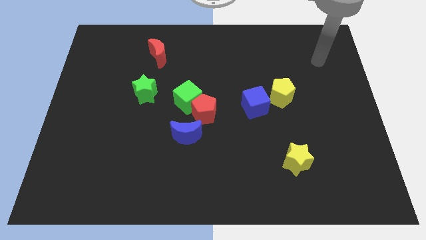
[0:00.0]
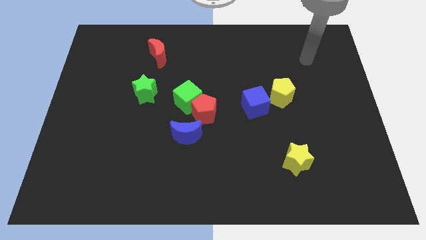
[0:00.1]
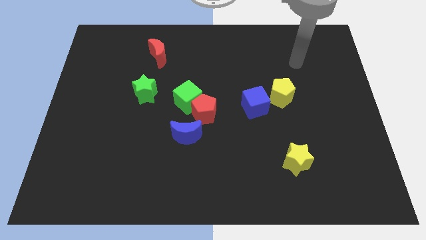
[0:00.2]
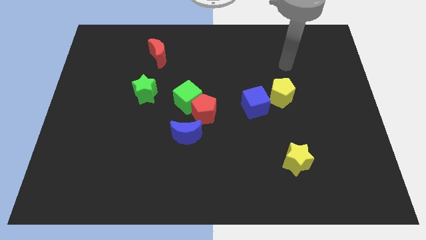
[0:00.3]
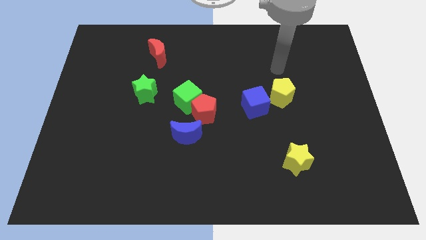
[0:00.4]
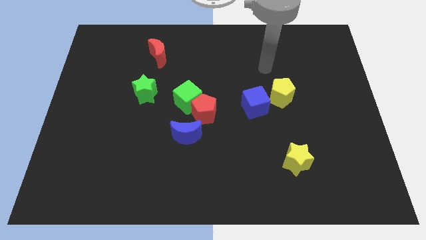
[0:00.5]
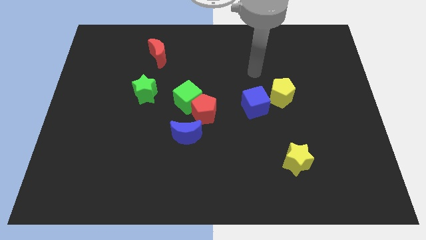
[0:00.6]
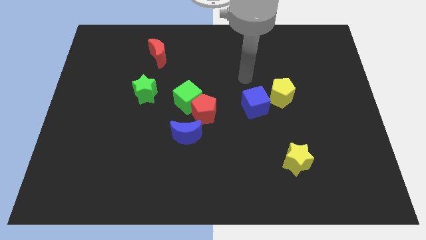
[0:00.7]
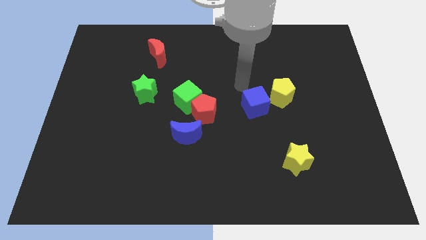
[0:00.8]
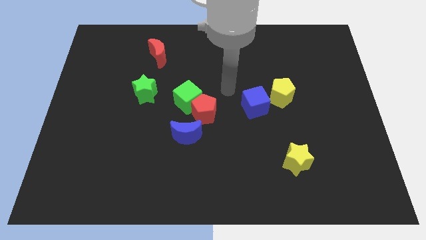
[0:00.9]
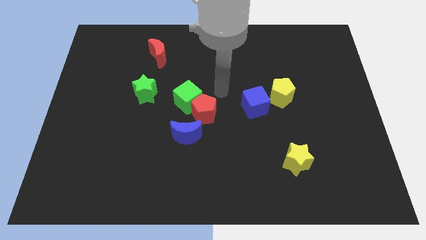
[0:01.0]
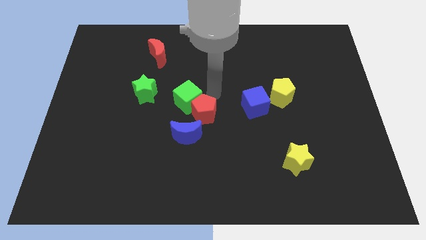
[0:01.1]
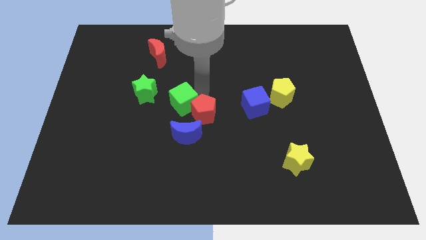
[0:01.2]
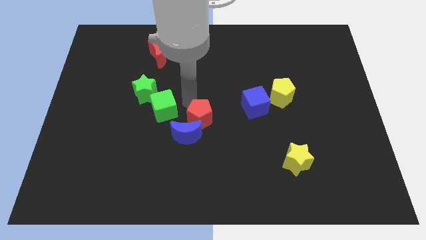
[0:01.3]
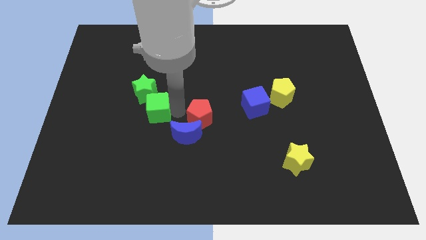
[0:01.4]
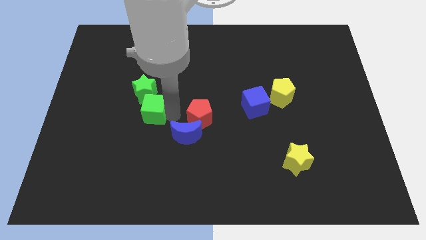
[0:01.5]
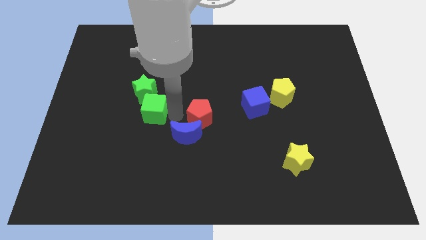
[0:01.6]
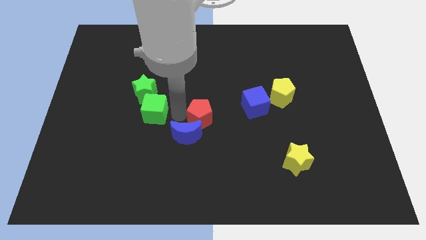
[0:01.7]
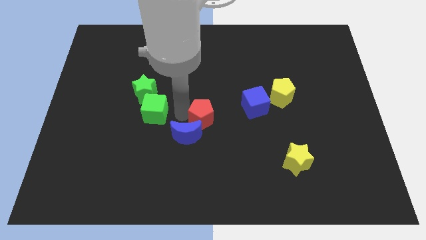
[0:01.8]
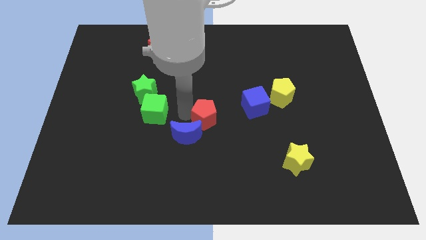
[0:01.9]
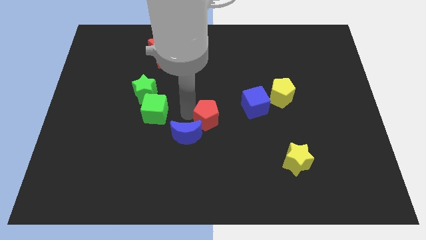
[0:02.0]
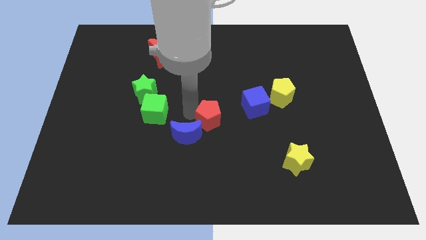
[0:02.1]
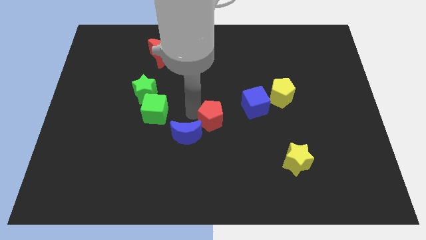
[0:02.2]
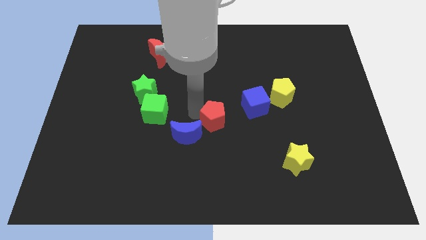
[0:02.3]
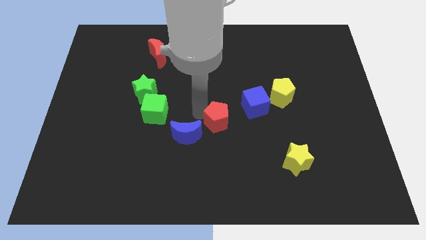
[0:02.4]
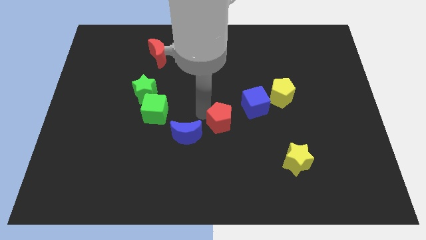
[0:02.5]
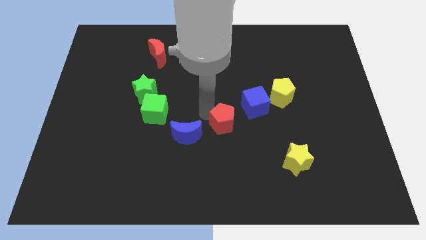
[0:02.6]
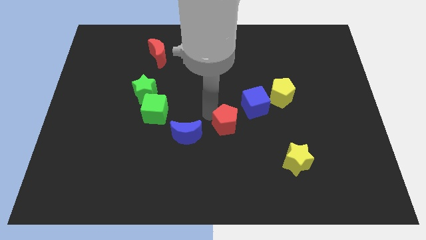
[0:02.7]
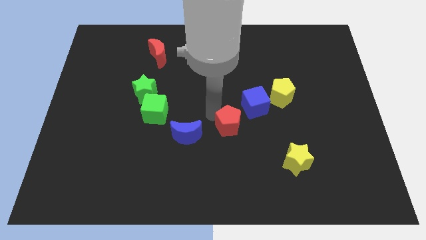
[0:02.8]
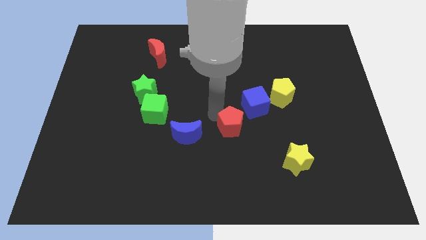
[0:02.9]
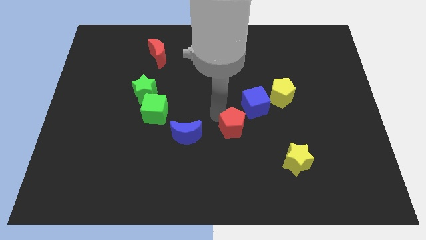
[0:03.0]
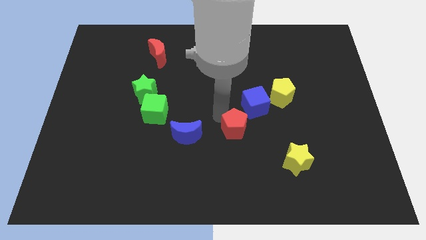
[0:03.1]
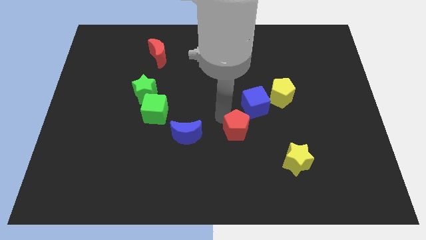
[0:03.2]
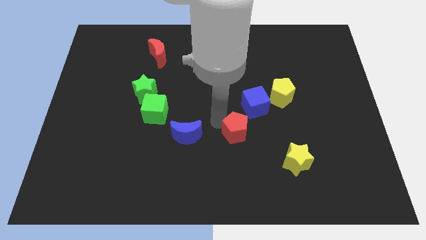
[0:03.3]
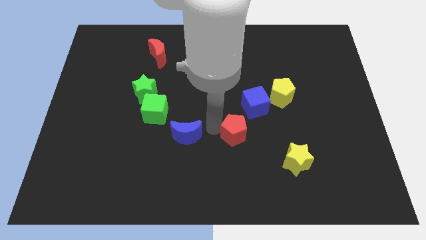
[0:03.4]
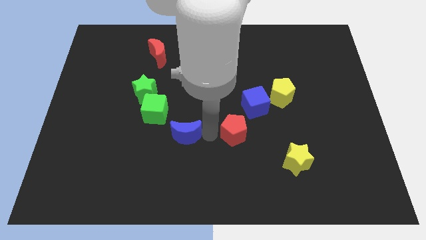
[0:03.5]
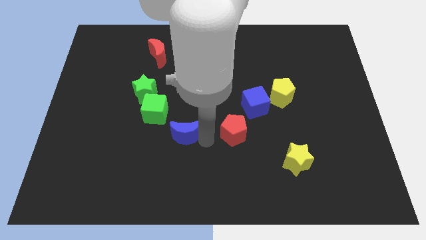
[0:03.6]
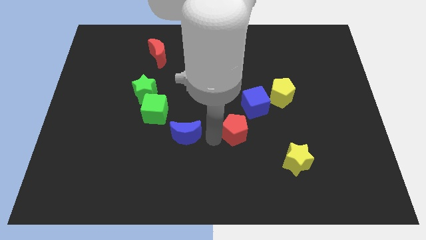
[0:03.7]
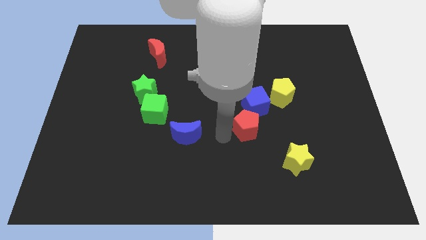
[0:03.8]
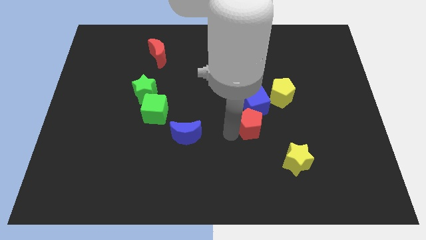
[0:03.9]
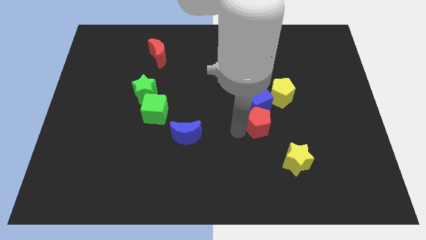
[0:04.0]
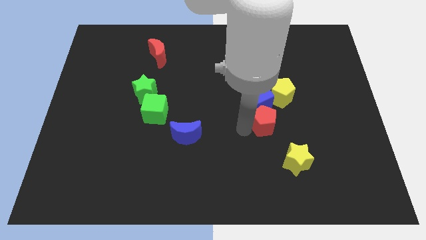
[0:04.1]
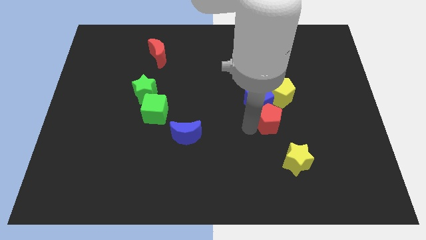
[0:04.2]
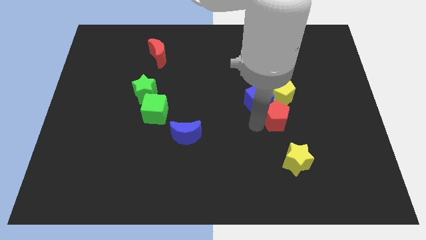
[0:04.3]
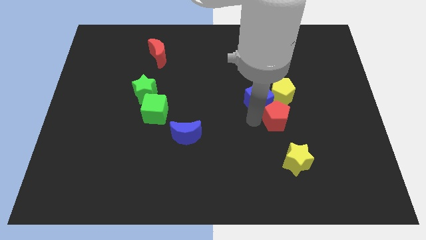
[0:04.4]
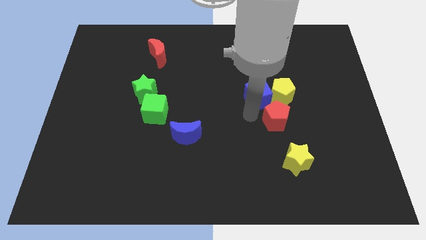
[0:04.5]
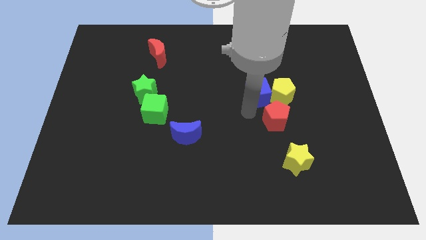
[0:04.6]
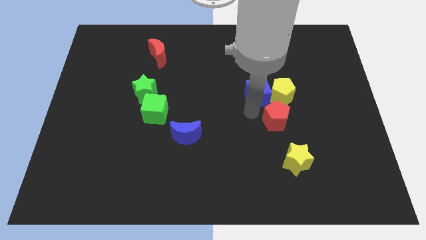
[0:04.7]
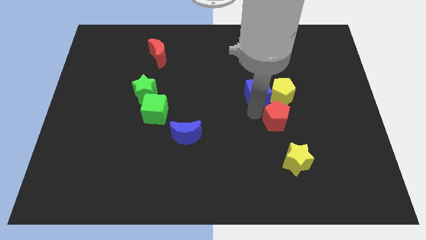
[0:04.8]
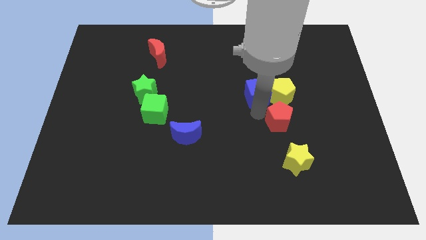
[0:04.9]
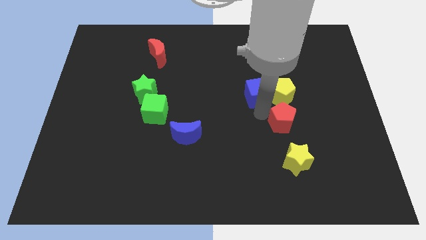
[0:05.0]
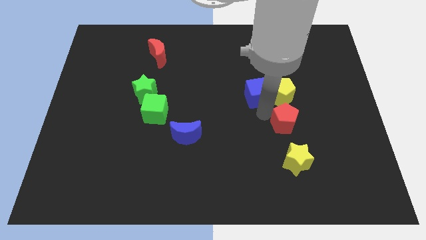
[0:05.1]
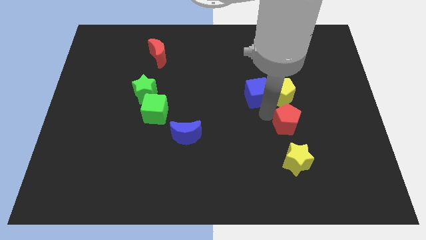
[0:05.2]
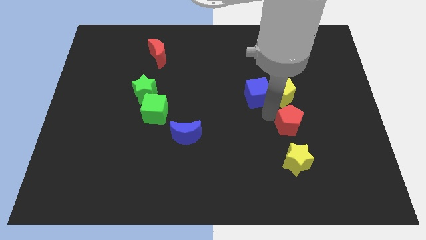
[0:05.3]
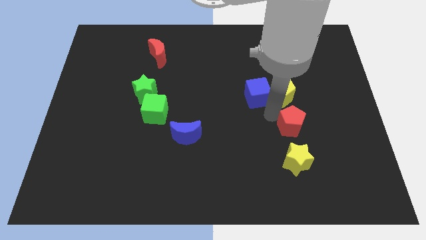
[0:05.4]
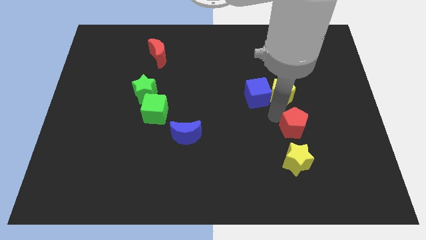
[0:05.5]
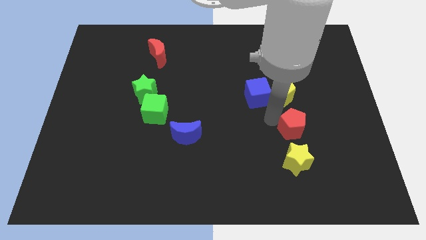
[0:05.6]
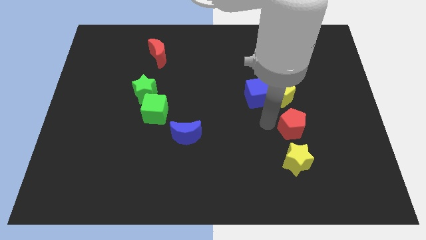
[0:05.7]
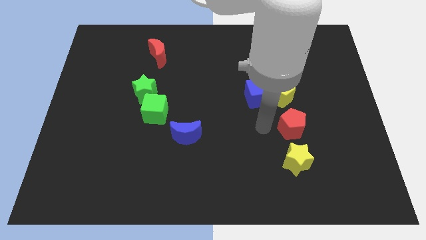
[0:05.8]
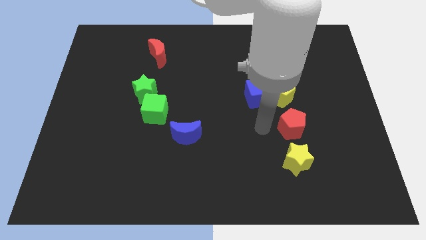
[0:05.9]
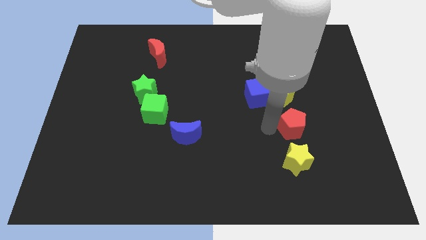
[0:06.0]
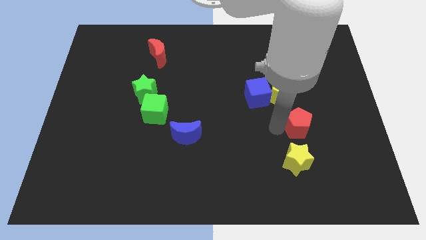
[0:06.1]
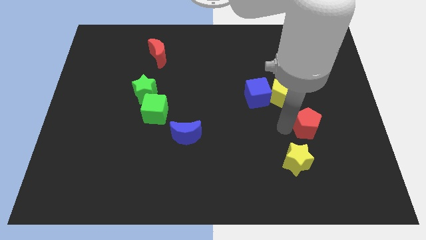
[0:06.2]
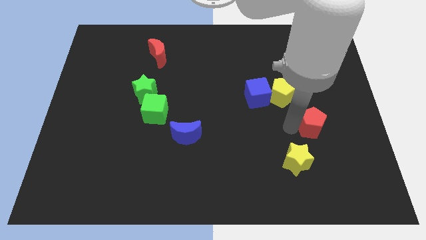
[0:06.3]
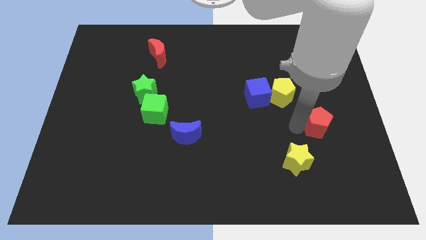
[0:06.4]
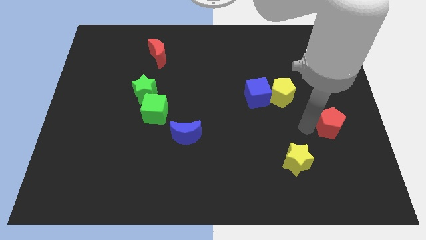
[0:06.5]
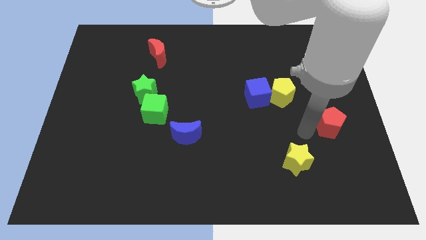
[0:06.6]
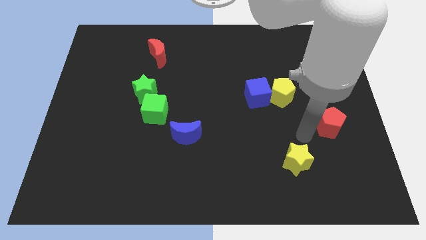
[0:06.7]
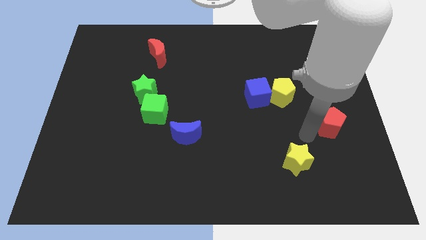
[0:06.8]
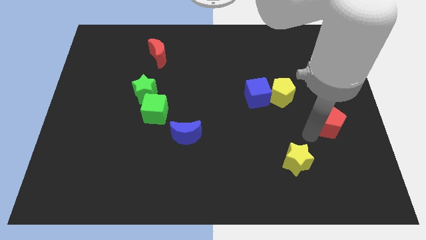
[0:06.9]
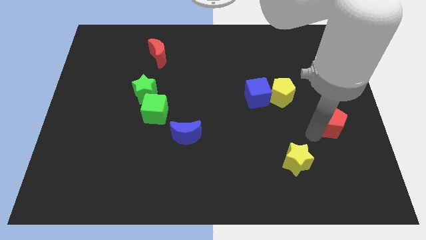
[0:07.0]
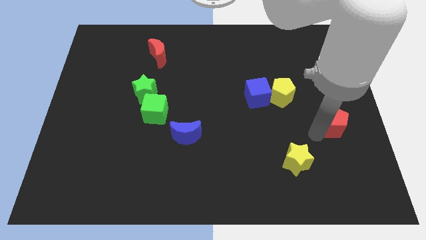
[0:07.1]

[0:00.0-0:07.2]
slide the red pentagon to the center right
